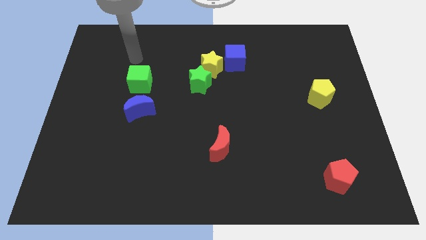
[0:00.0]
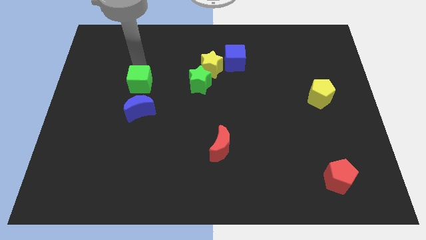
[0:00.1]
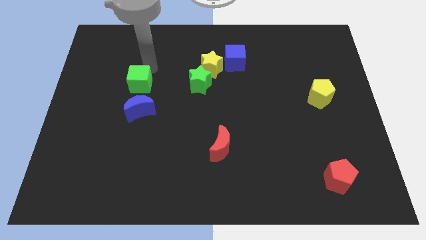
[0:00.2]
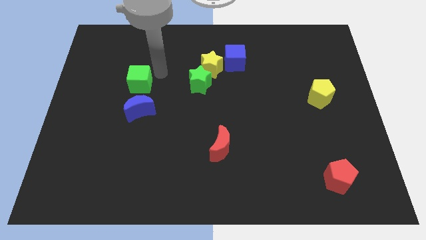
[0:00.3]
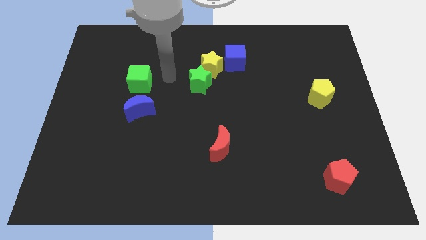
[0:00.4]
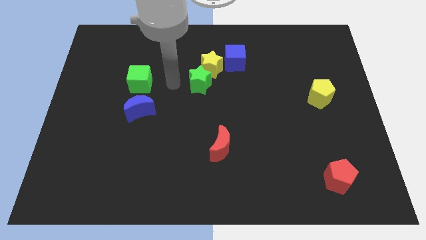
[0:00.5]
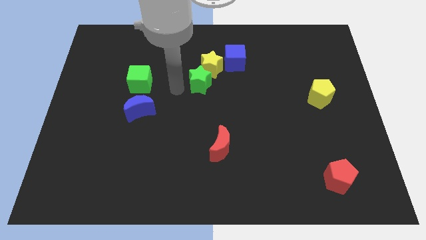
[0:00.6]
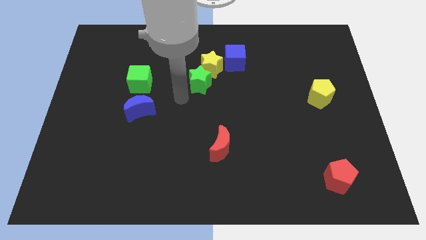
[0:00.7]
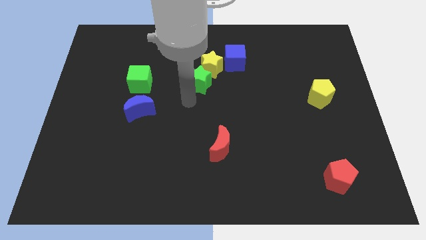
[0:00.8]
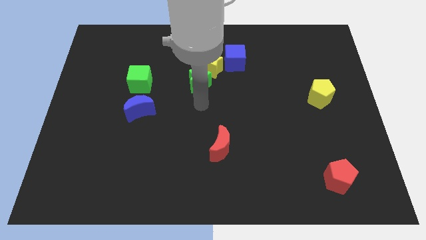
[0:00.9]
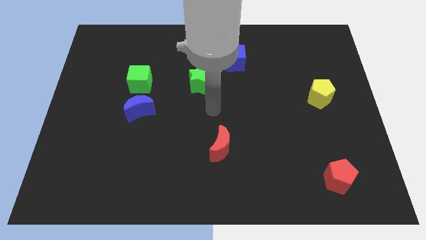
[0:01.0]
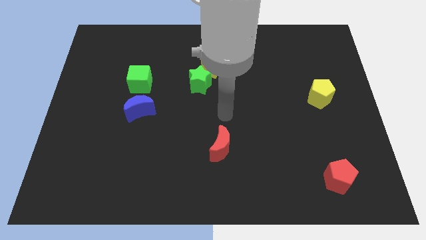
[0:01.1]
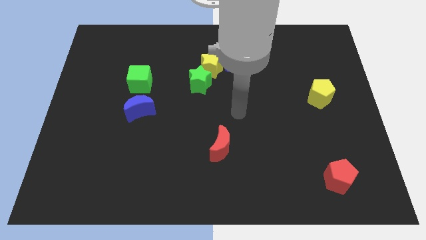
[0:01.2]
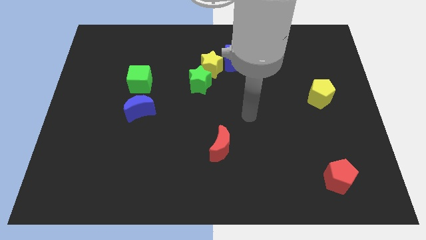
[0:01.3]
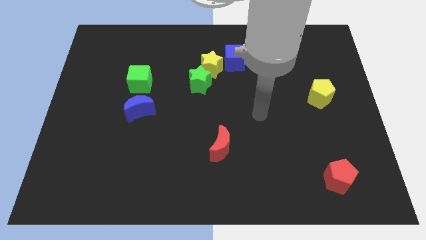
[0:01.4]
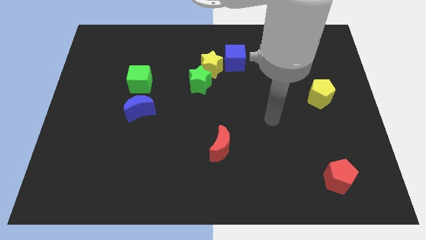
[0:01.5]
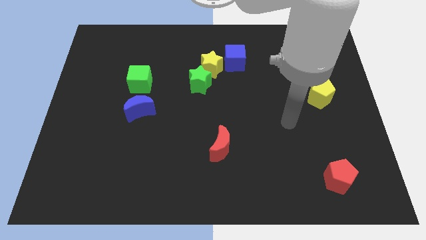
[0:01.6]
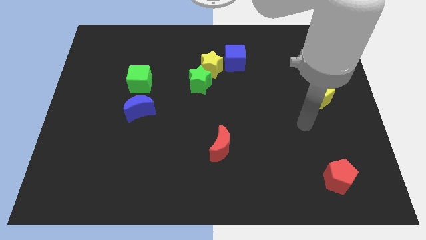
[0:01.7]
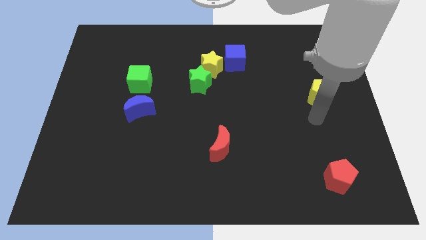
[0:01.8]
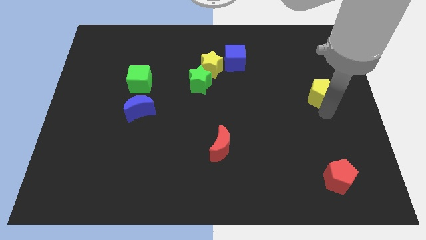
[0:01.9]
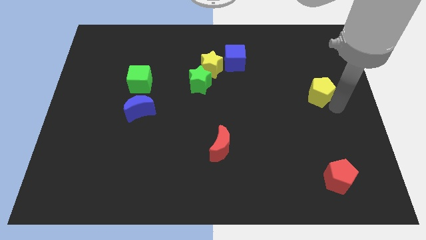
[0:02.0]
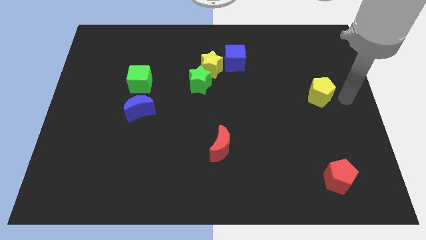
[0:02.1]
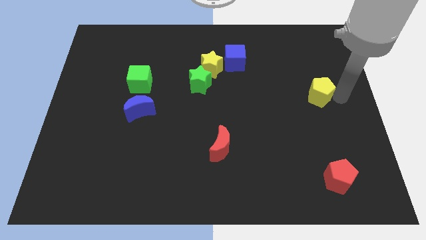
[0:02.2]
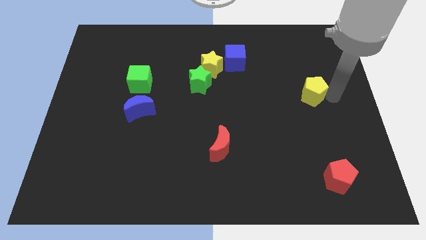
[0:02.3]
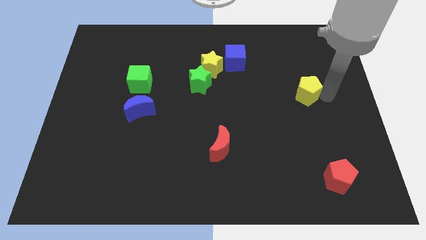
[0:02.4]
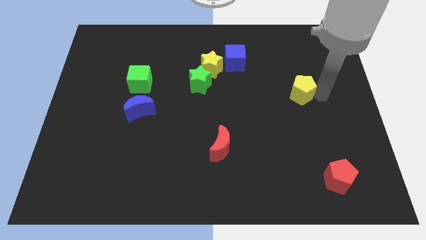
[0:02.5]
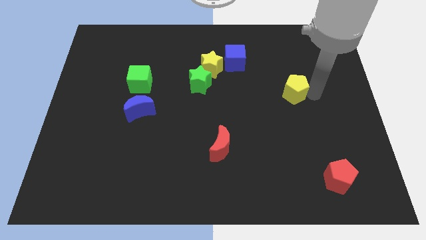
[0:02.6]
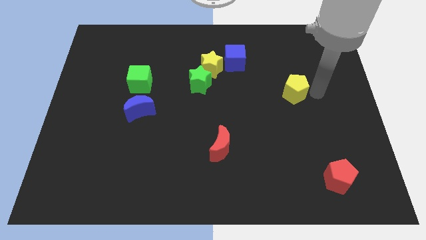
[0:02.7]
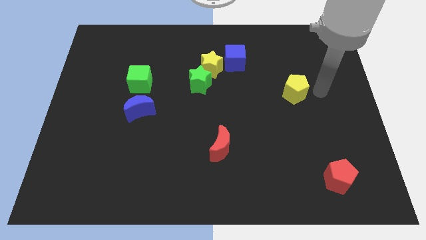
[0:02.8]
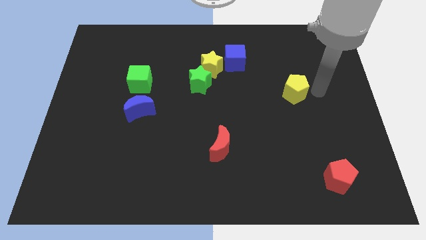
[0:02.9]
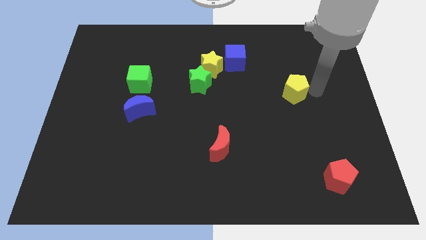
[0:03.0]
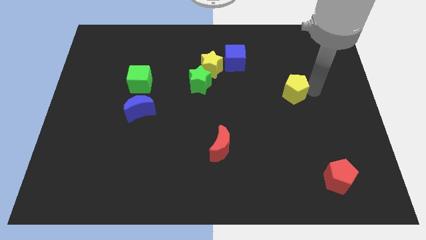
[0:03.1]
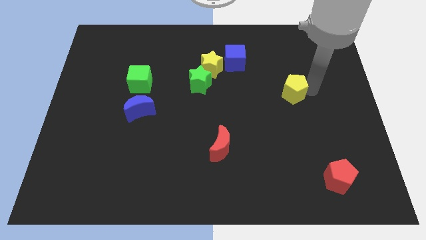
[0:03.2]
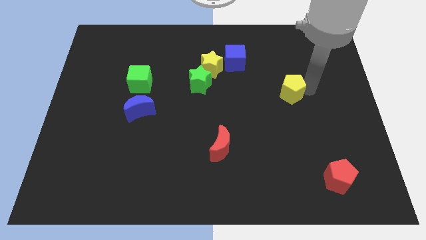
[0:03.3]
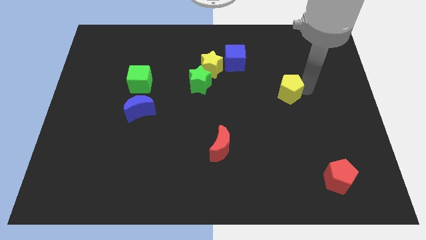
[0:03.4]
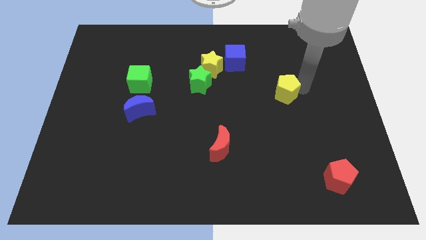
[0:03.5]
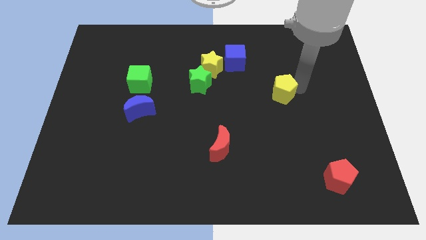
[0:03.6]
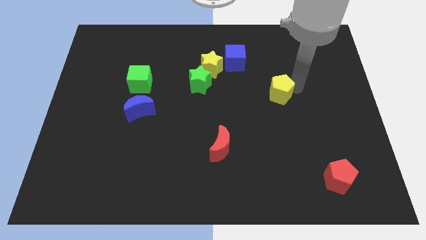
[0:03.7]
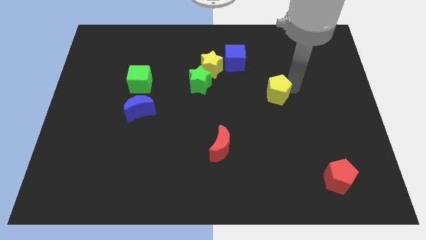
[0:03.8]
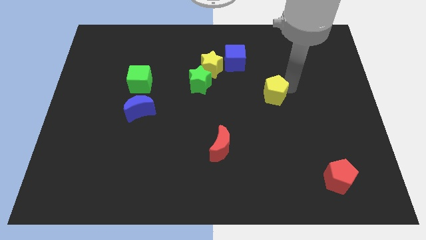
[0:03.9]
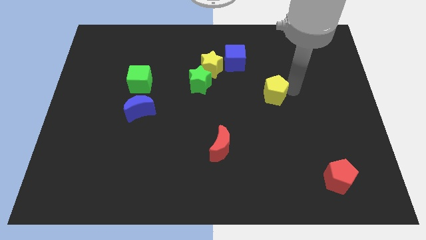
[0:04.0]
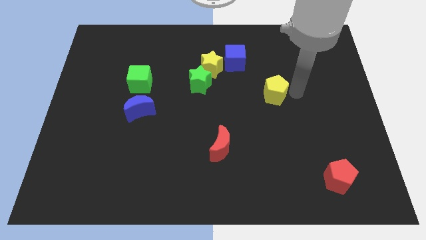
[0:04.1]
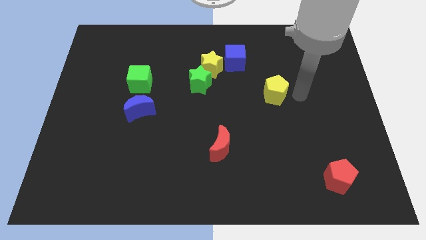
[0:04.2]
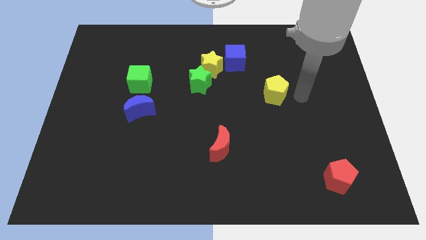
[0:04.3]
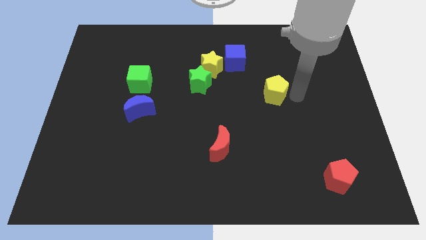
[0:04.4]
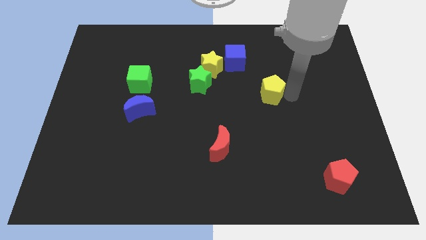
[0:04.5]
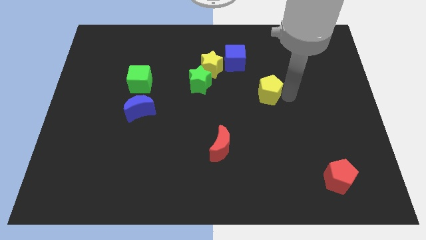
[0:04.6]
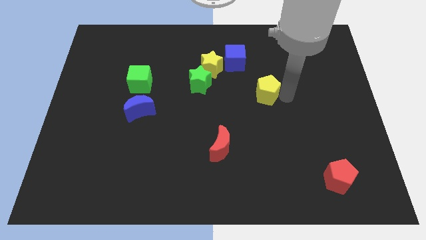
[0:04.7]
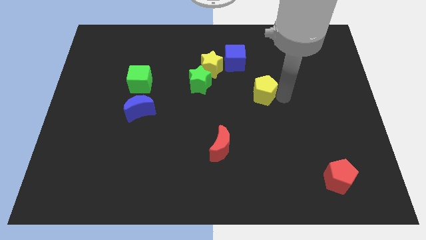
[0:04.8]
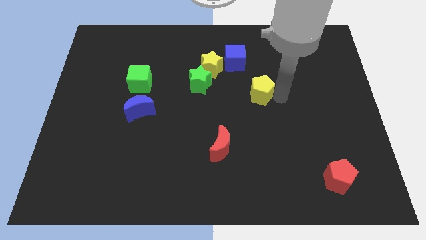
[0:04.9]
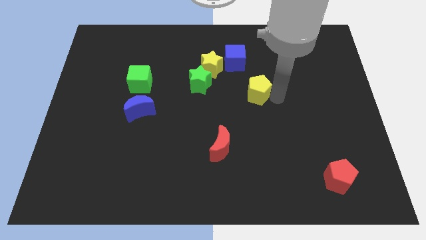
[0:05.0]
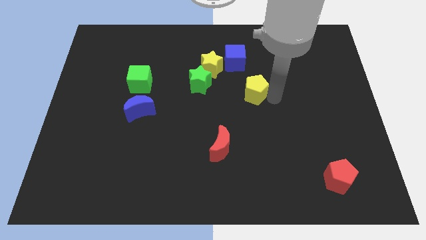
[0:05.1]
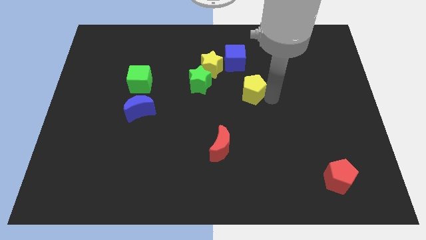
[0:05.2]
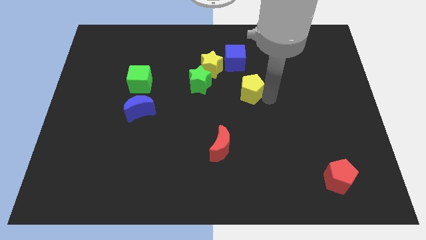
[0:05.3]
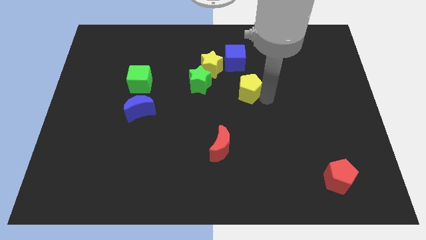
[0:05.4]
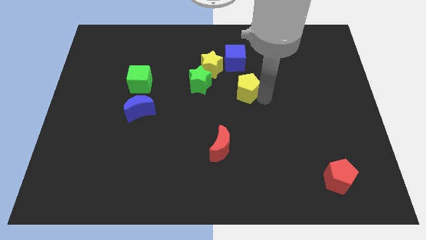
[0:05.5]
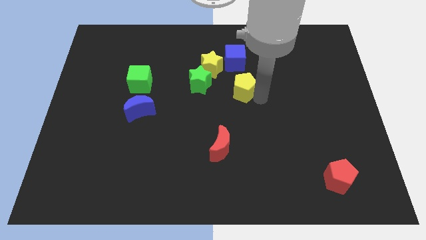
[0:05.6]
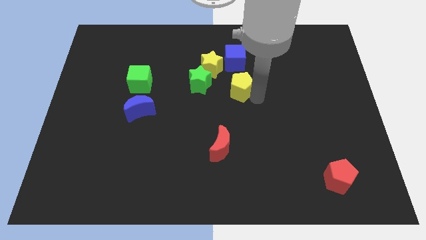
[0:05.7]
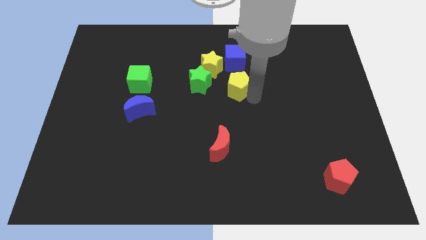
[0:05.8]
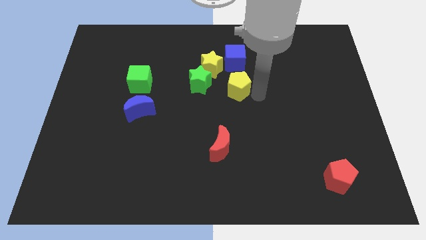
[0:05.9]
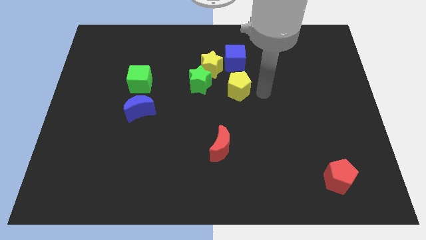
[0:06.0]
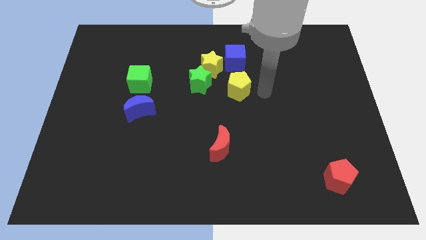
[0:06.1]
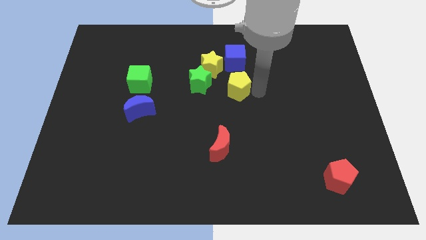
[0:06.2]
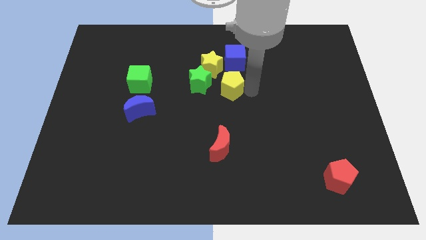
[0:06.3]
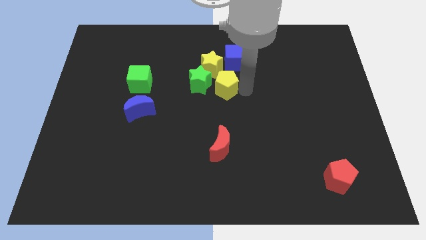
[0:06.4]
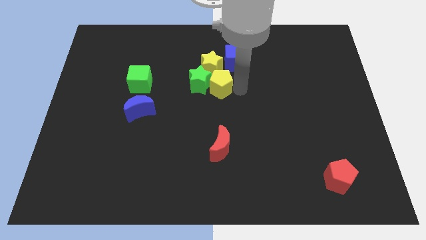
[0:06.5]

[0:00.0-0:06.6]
put the yellow pentagon to the green star
